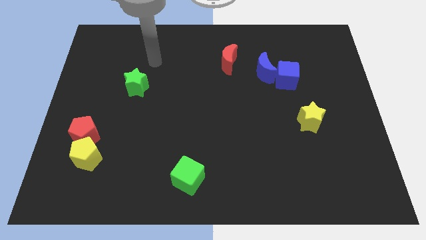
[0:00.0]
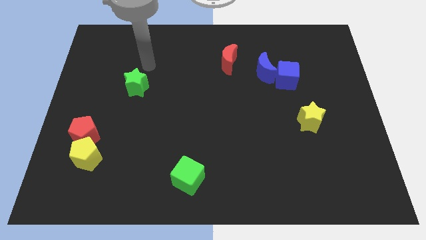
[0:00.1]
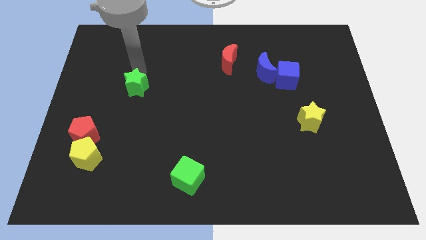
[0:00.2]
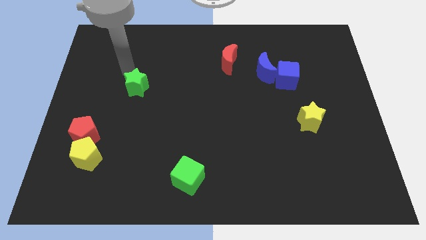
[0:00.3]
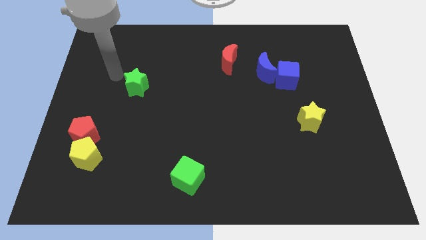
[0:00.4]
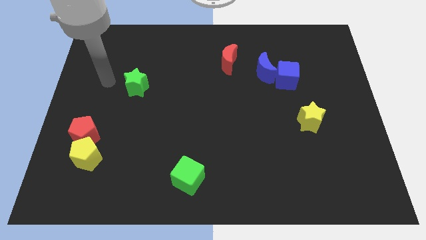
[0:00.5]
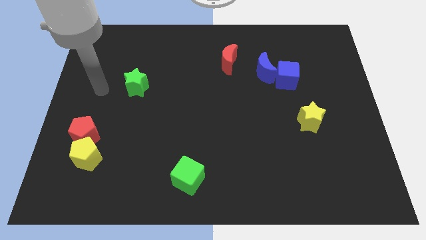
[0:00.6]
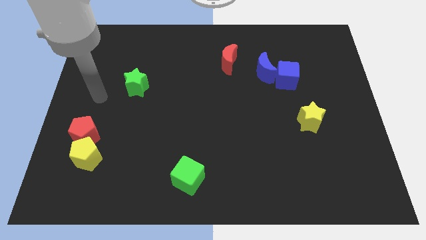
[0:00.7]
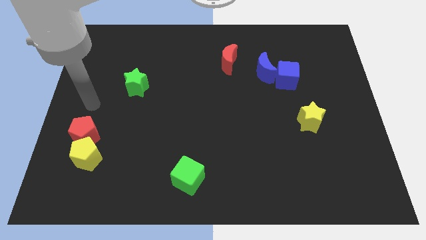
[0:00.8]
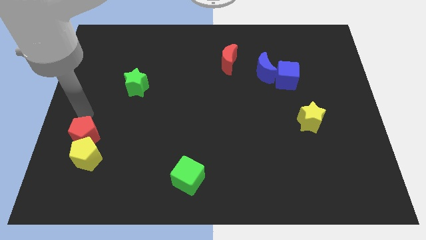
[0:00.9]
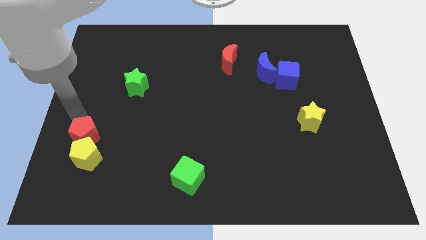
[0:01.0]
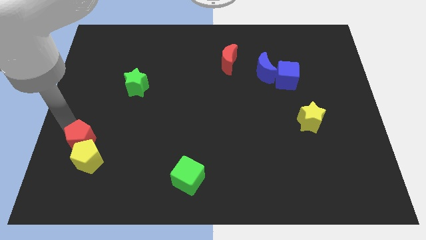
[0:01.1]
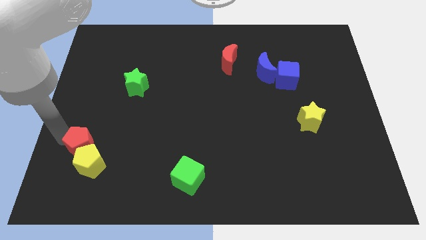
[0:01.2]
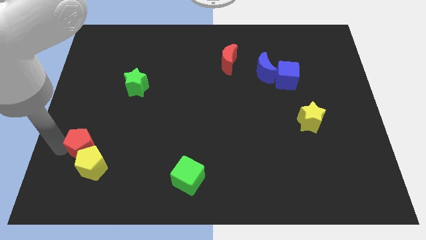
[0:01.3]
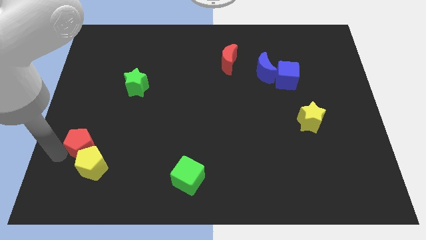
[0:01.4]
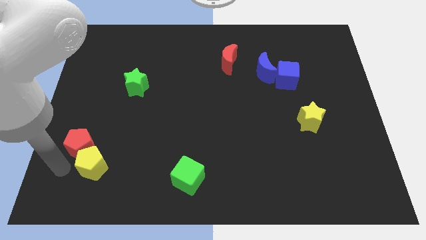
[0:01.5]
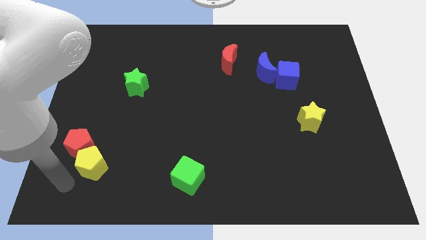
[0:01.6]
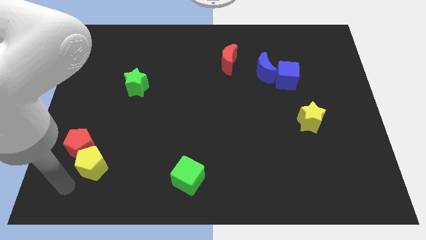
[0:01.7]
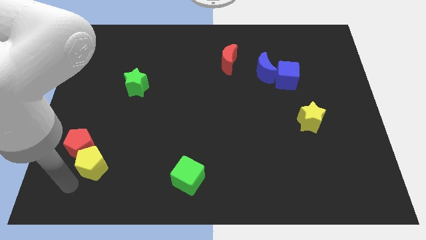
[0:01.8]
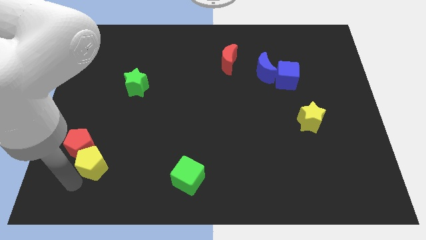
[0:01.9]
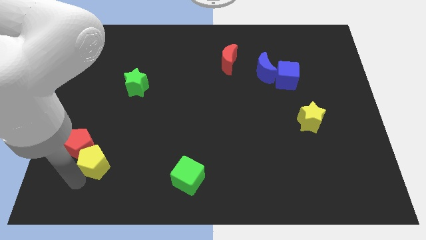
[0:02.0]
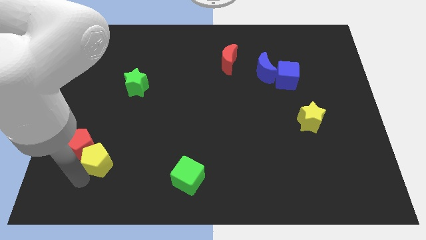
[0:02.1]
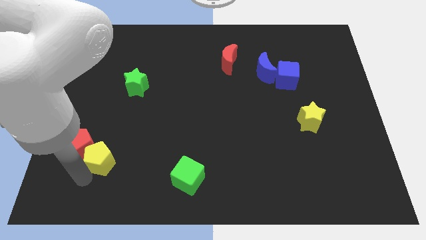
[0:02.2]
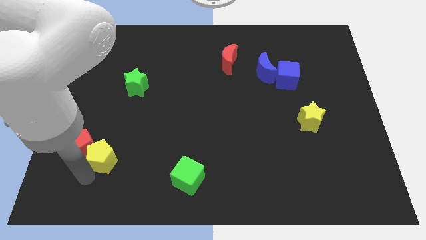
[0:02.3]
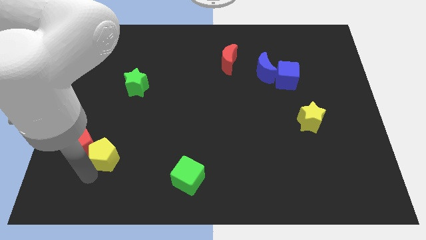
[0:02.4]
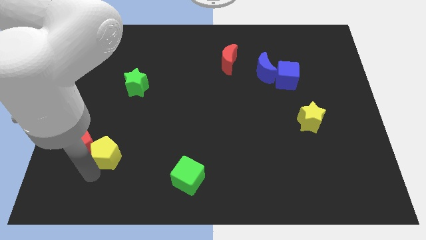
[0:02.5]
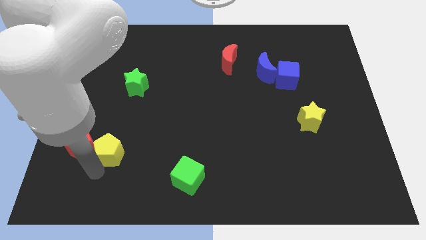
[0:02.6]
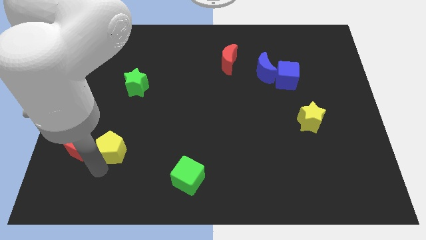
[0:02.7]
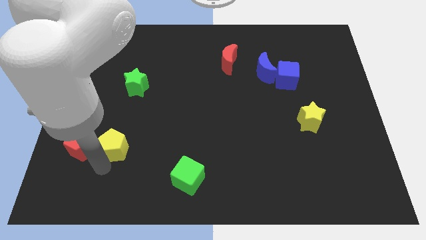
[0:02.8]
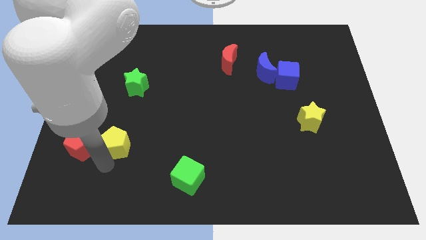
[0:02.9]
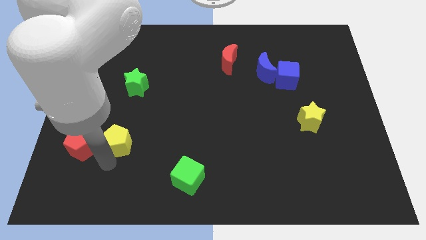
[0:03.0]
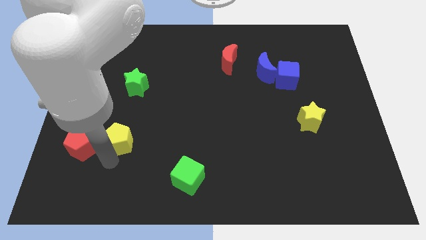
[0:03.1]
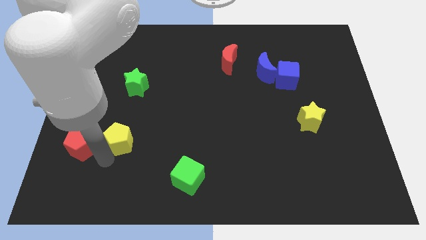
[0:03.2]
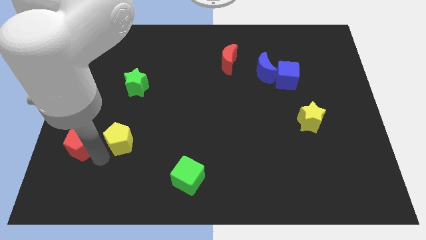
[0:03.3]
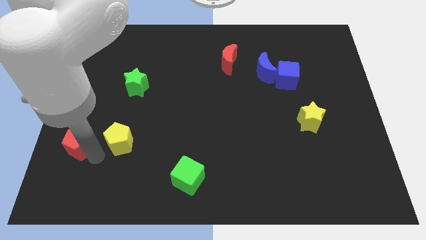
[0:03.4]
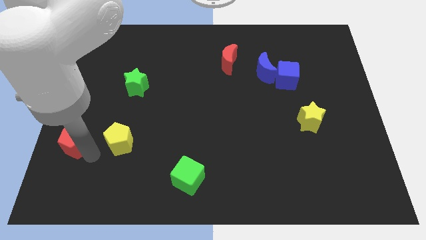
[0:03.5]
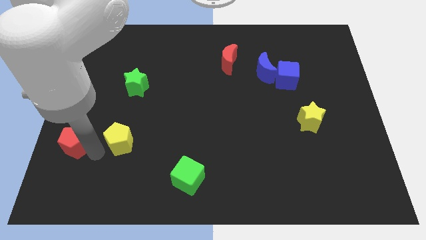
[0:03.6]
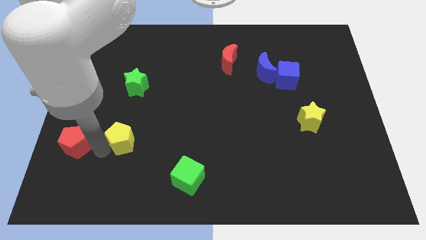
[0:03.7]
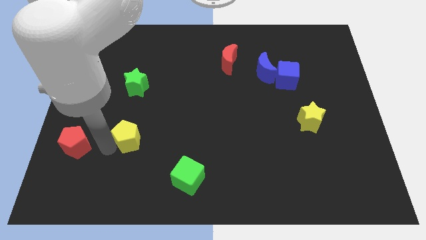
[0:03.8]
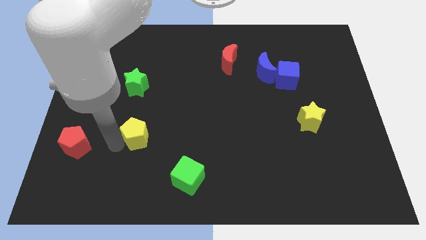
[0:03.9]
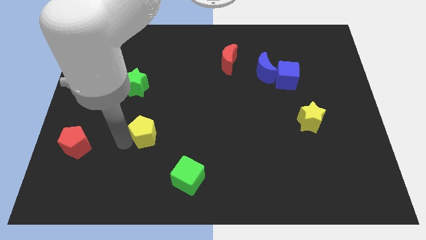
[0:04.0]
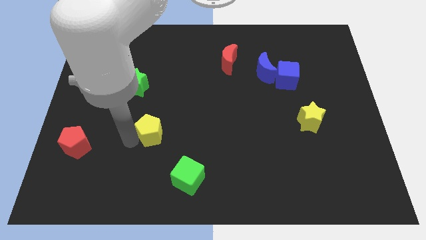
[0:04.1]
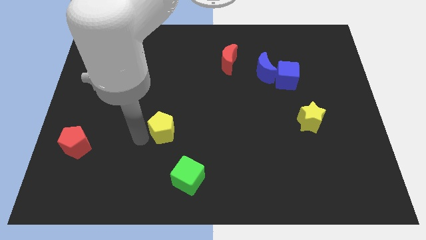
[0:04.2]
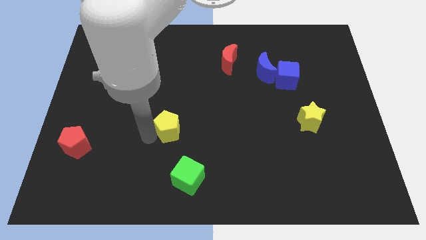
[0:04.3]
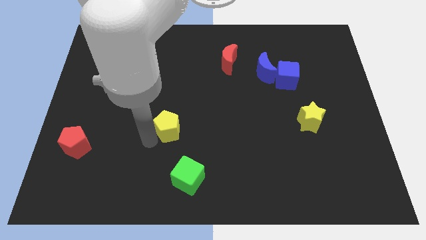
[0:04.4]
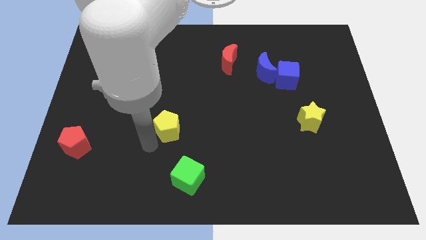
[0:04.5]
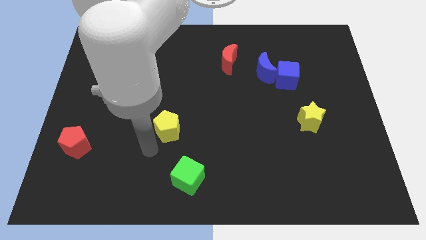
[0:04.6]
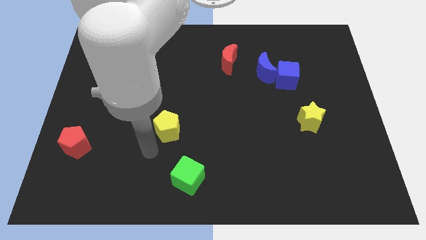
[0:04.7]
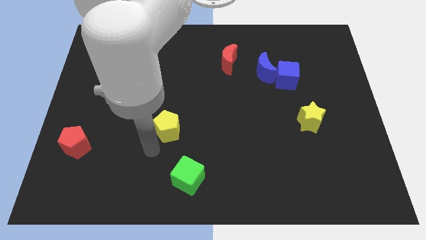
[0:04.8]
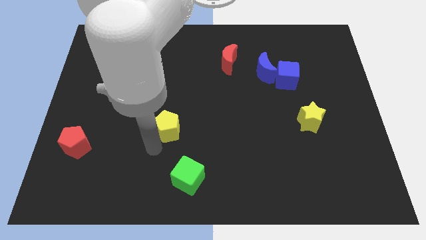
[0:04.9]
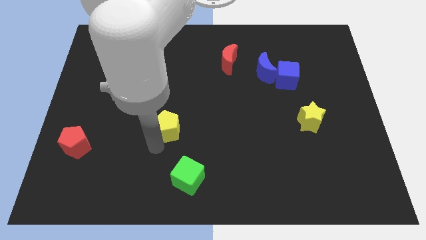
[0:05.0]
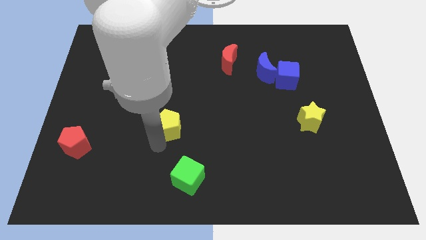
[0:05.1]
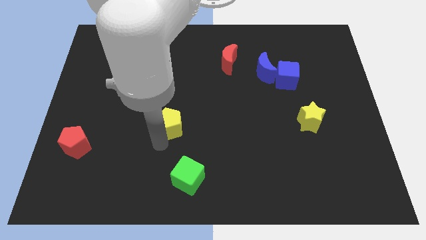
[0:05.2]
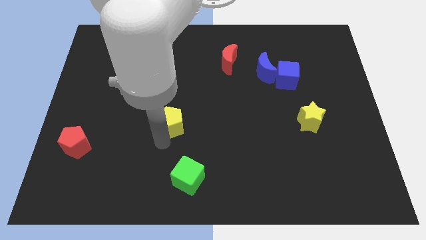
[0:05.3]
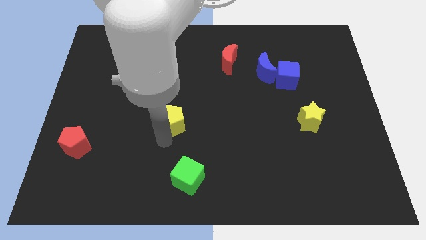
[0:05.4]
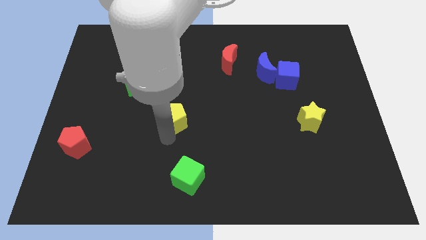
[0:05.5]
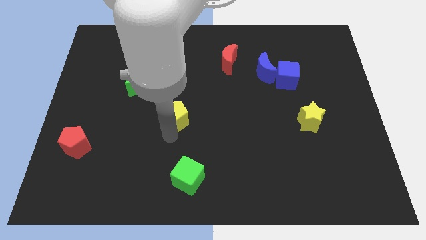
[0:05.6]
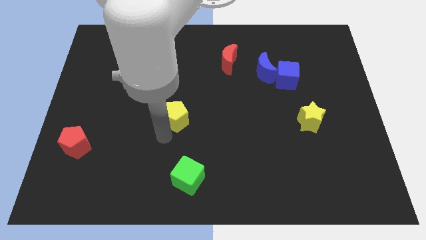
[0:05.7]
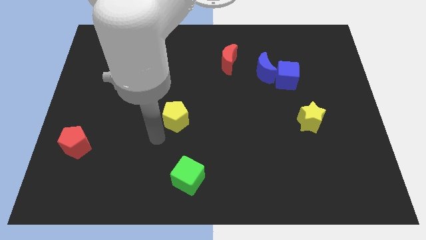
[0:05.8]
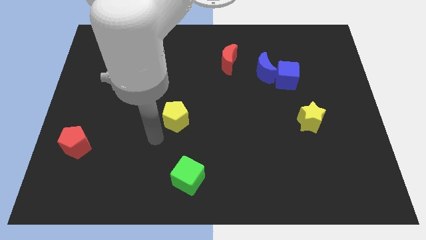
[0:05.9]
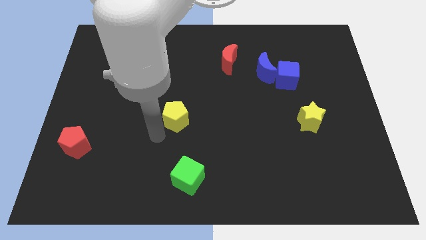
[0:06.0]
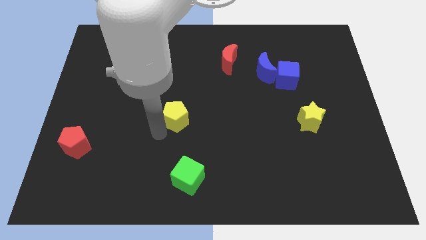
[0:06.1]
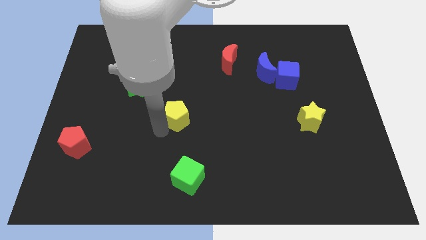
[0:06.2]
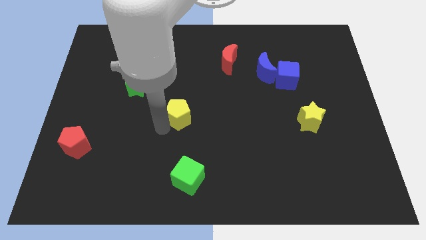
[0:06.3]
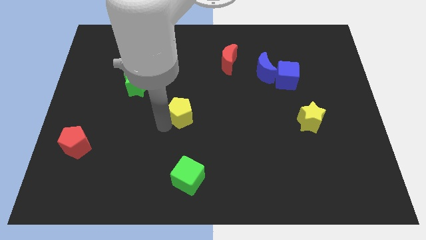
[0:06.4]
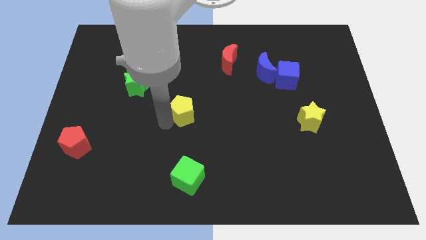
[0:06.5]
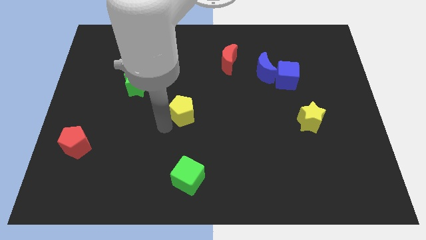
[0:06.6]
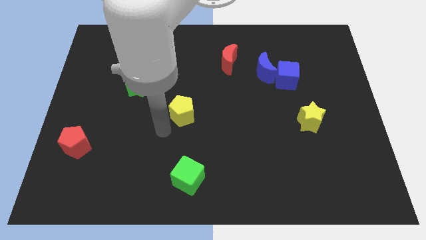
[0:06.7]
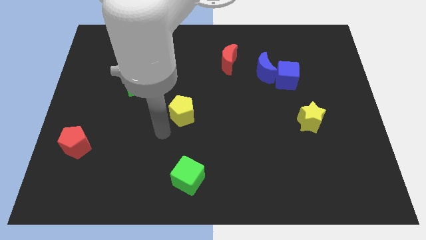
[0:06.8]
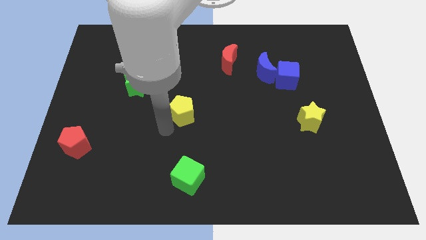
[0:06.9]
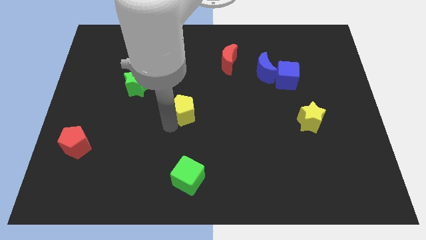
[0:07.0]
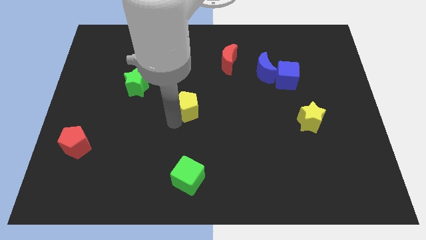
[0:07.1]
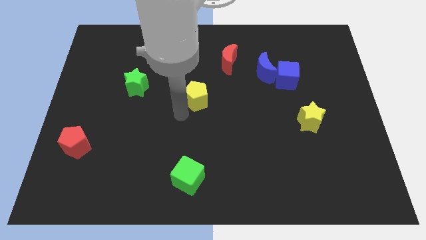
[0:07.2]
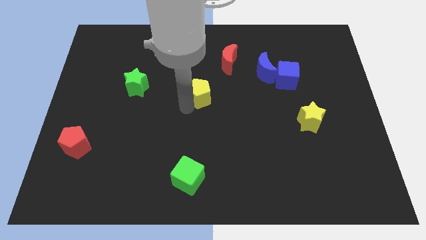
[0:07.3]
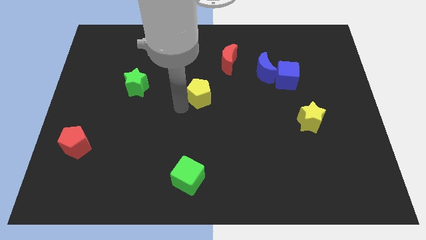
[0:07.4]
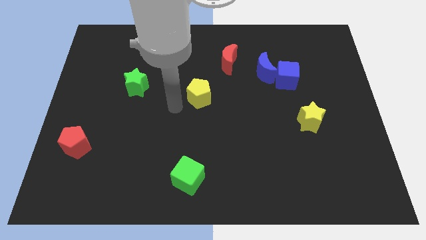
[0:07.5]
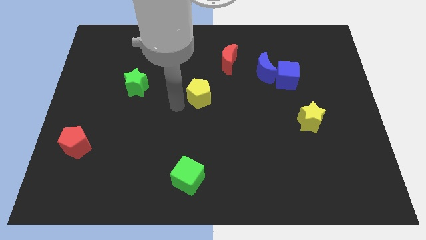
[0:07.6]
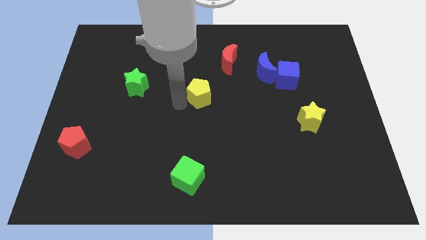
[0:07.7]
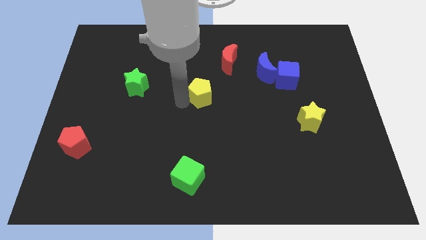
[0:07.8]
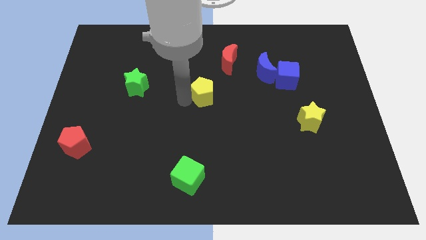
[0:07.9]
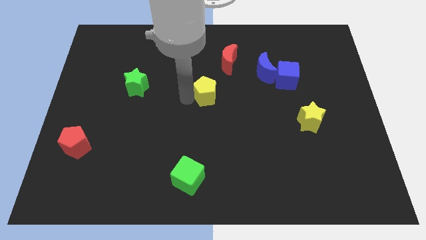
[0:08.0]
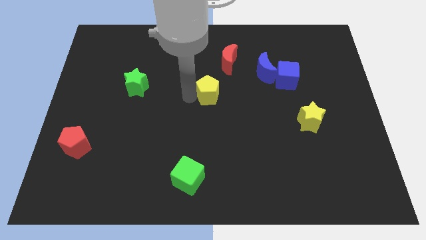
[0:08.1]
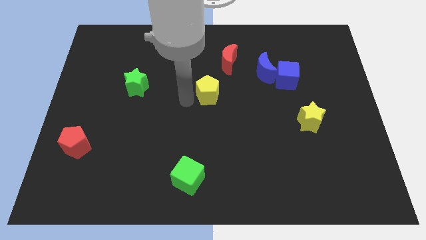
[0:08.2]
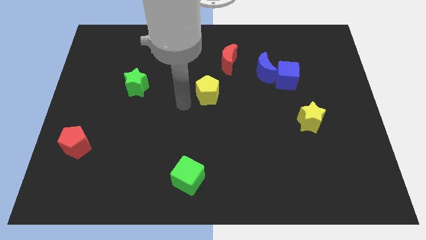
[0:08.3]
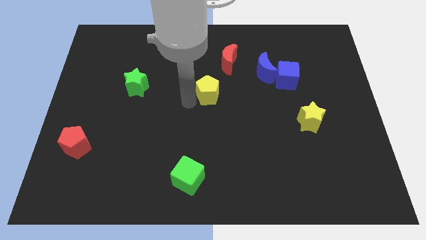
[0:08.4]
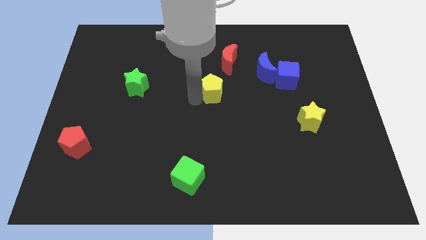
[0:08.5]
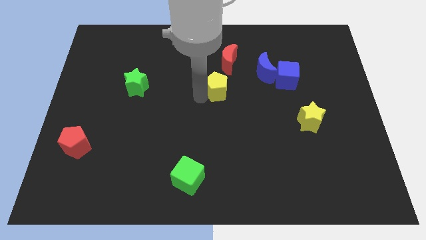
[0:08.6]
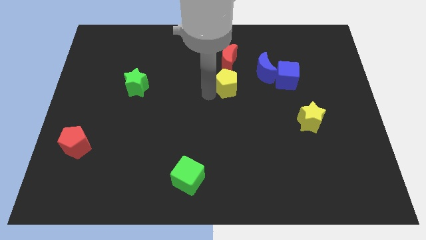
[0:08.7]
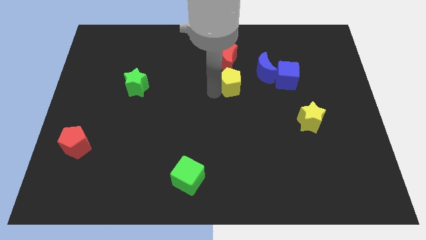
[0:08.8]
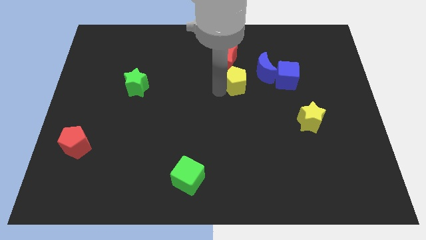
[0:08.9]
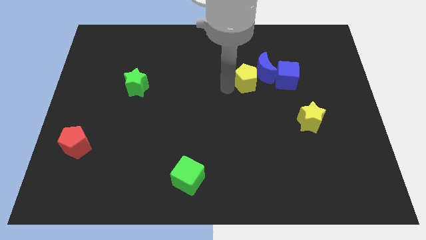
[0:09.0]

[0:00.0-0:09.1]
slide the yellow pentagon to the blue moon
